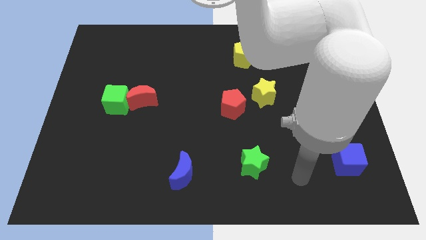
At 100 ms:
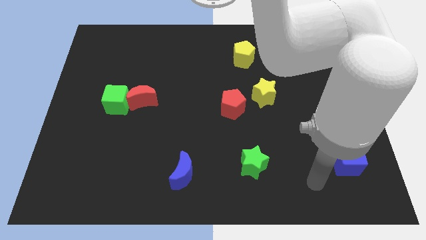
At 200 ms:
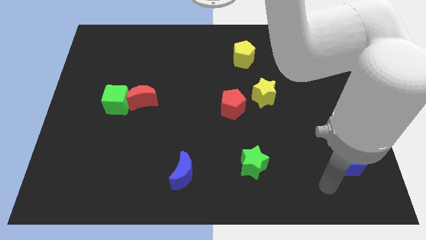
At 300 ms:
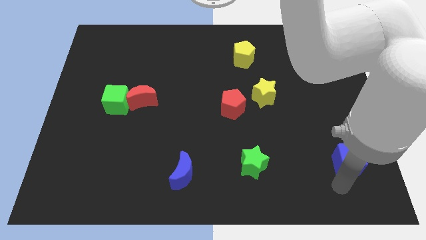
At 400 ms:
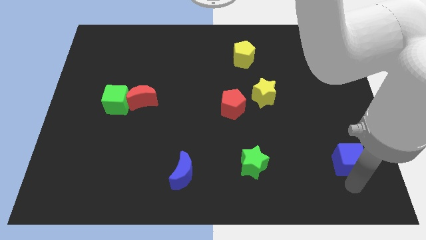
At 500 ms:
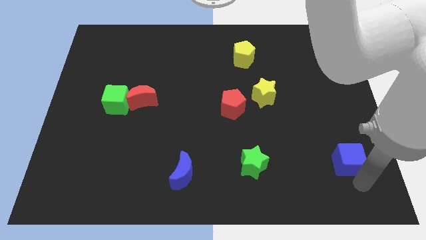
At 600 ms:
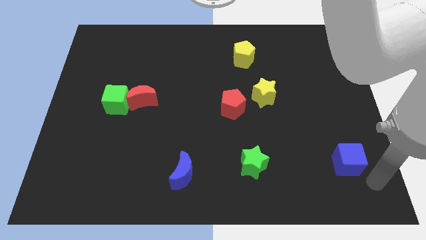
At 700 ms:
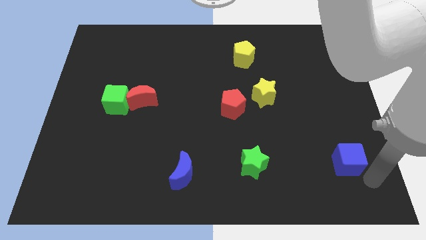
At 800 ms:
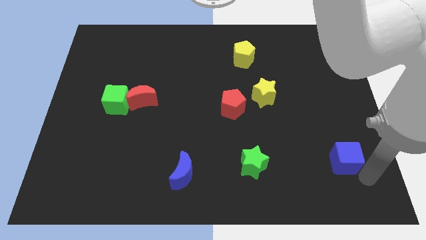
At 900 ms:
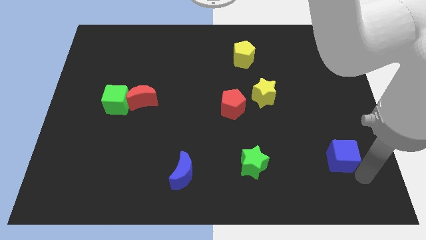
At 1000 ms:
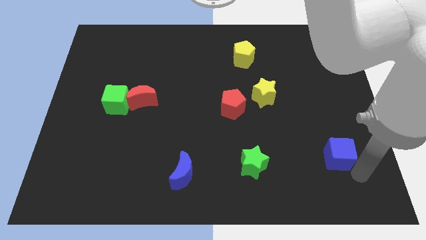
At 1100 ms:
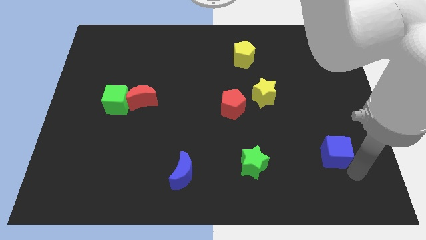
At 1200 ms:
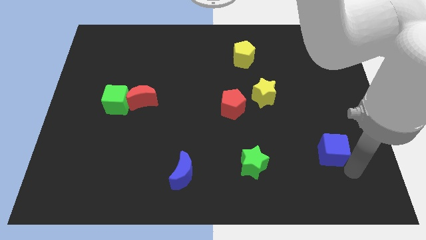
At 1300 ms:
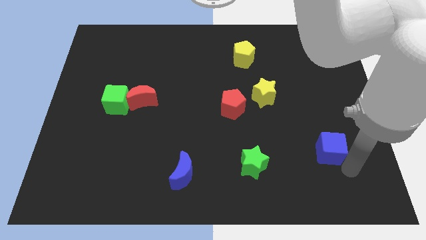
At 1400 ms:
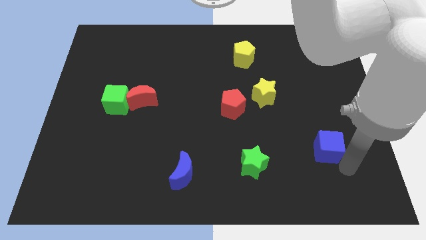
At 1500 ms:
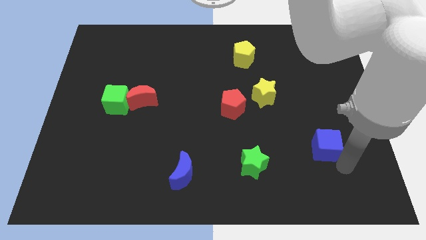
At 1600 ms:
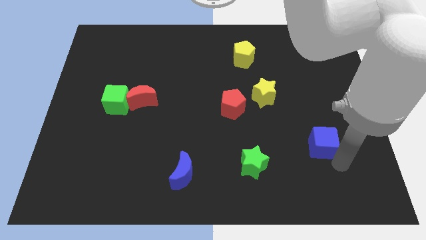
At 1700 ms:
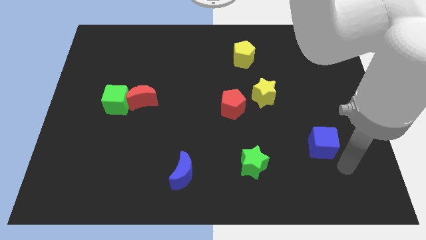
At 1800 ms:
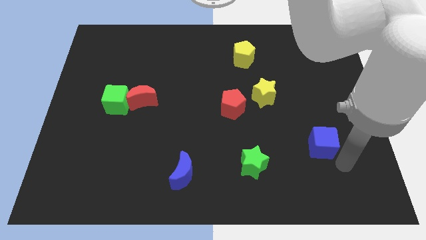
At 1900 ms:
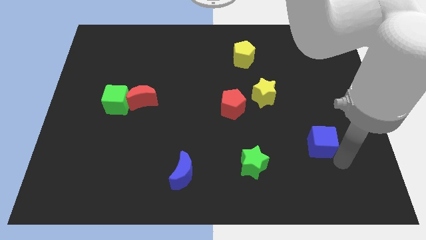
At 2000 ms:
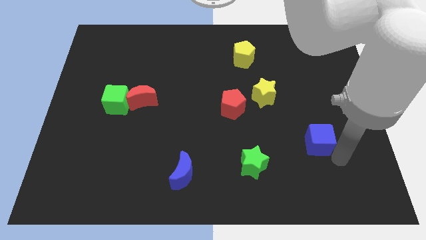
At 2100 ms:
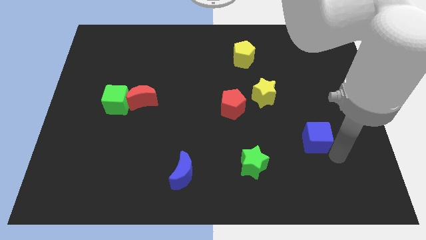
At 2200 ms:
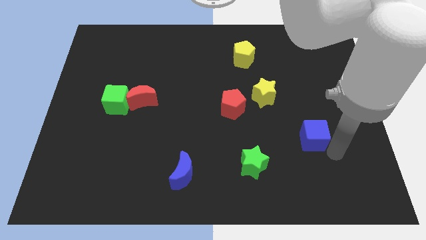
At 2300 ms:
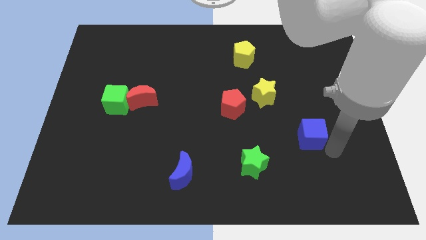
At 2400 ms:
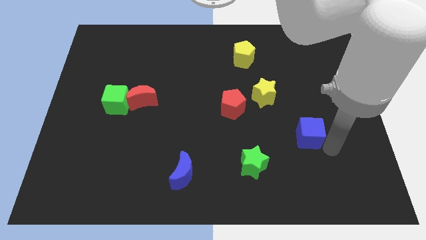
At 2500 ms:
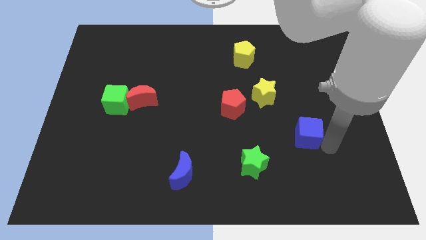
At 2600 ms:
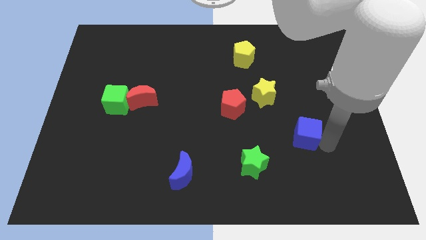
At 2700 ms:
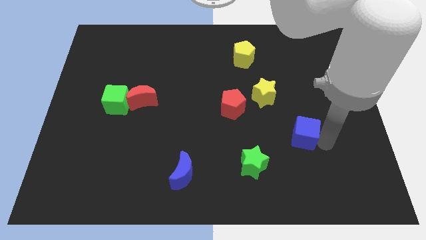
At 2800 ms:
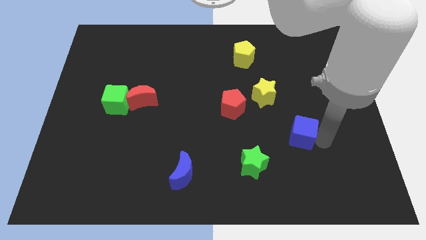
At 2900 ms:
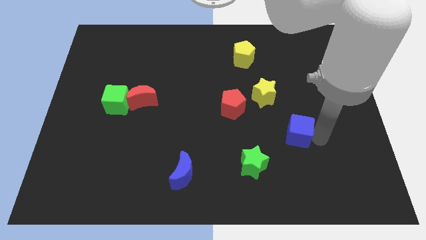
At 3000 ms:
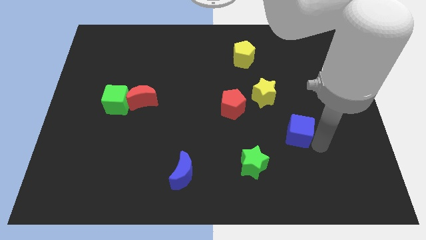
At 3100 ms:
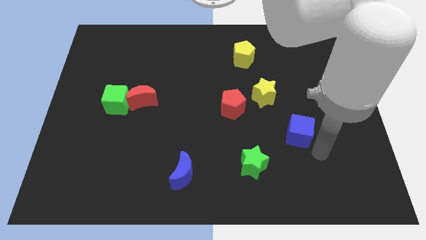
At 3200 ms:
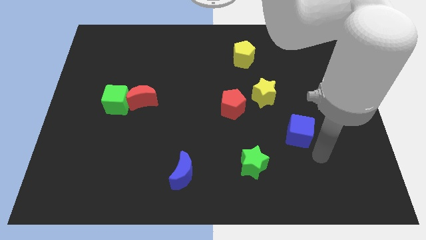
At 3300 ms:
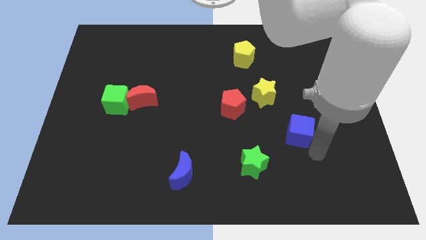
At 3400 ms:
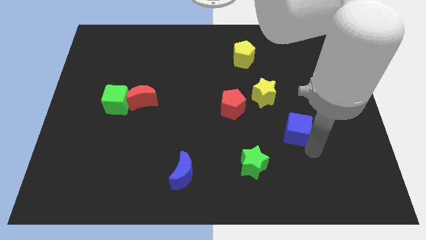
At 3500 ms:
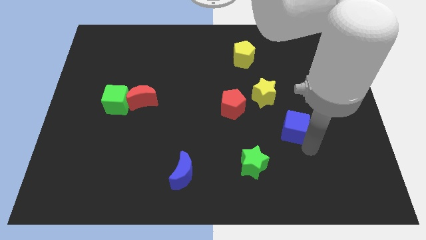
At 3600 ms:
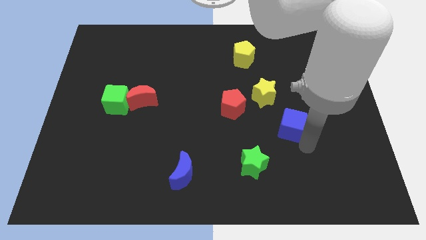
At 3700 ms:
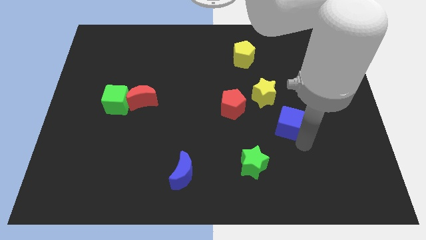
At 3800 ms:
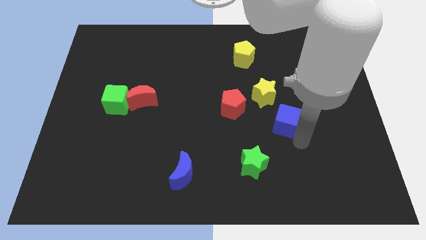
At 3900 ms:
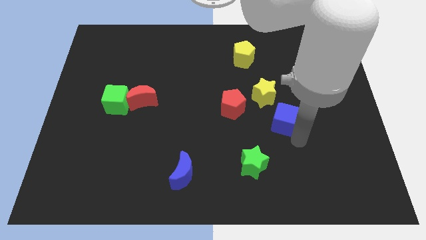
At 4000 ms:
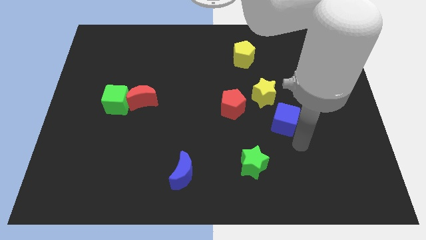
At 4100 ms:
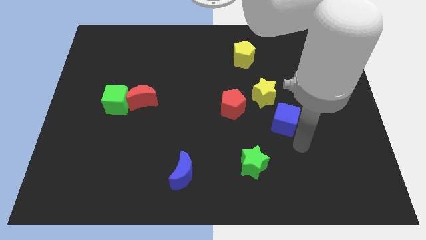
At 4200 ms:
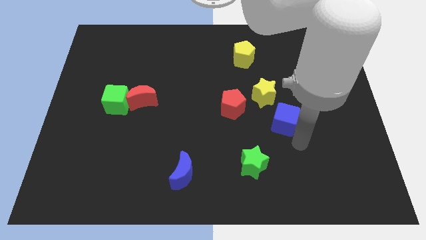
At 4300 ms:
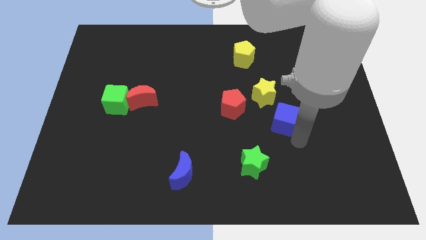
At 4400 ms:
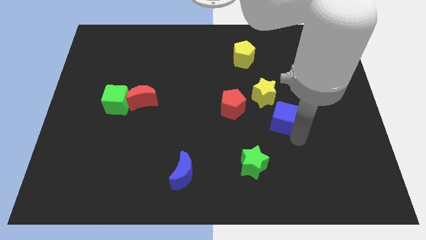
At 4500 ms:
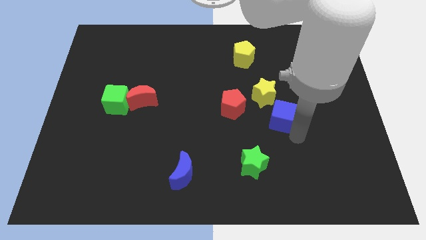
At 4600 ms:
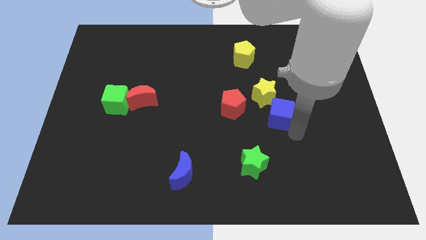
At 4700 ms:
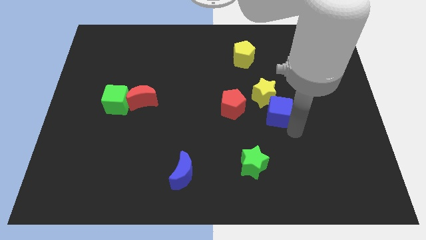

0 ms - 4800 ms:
slide the blue cube next to the yellow star
